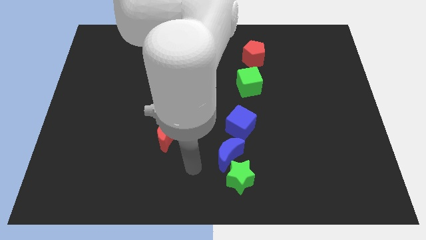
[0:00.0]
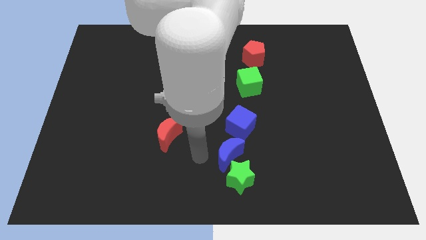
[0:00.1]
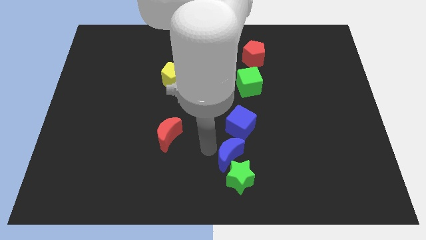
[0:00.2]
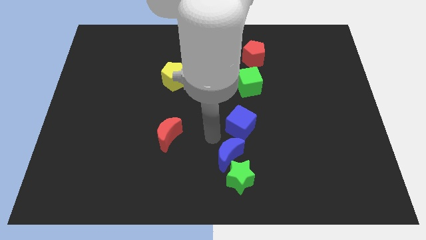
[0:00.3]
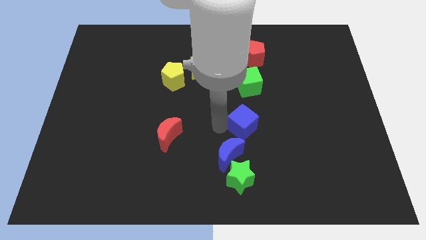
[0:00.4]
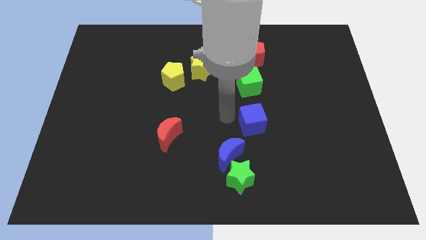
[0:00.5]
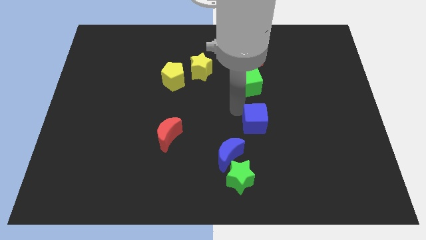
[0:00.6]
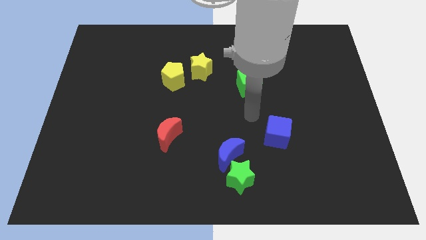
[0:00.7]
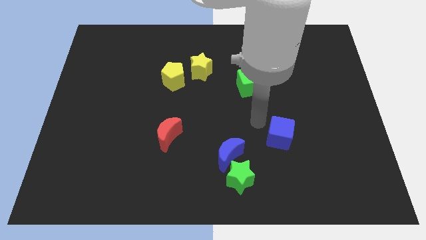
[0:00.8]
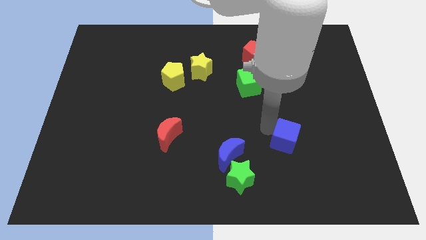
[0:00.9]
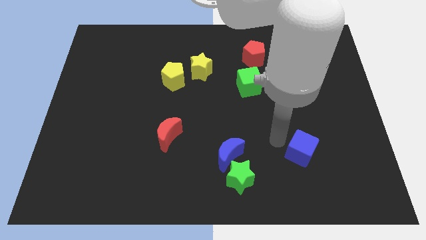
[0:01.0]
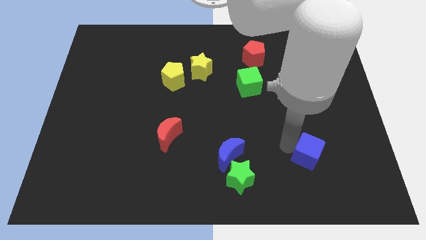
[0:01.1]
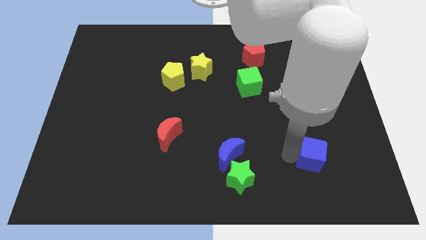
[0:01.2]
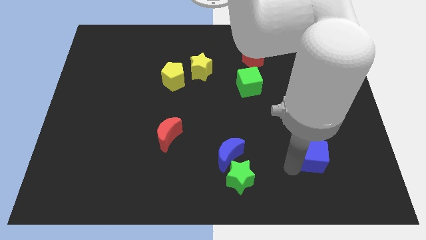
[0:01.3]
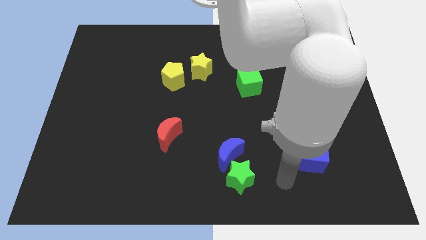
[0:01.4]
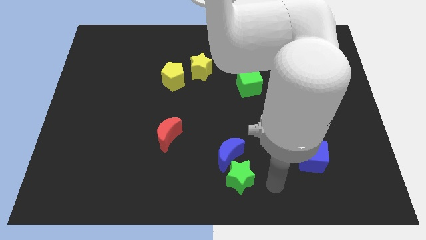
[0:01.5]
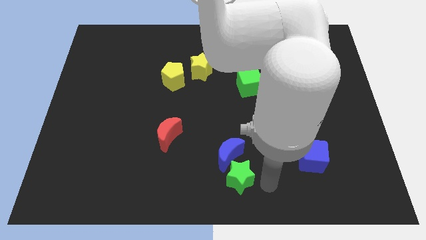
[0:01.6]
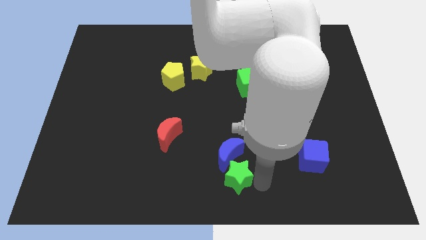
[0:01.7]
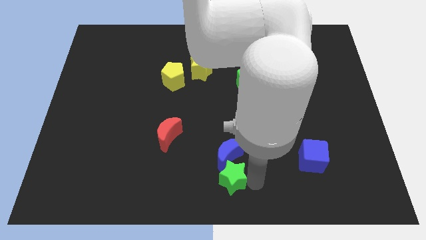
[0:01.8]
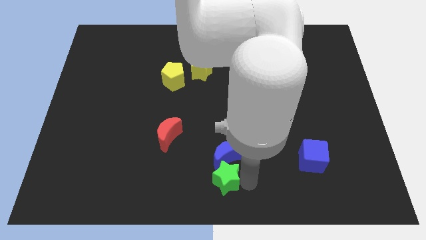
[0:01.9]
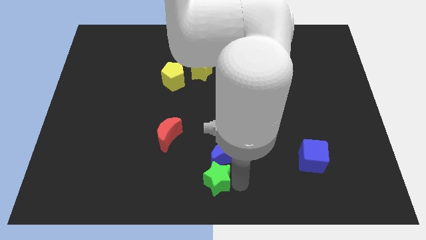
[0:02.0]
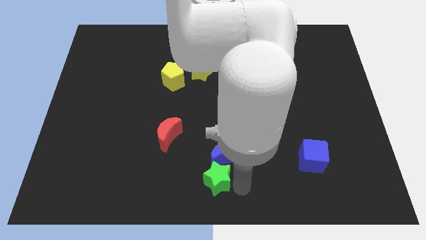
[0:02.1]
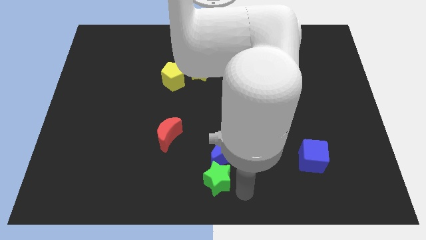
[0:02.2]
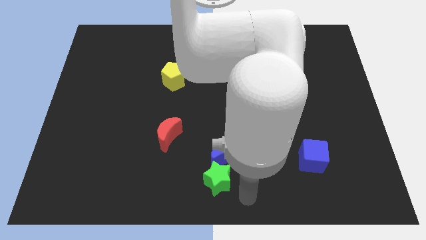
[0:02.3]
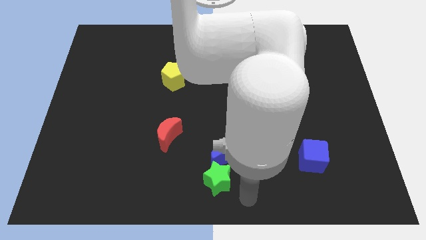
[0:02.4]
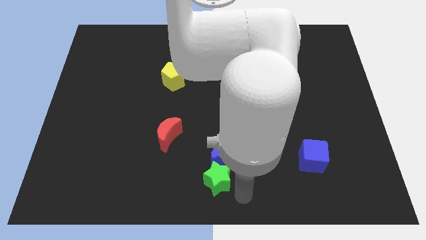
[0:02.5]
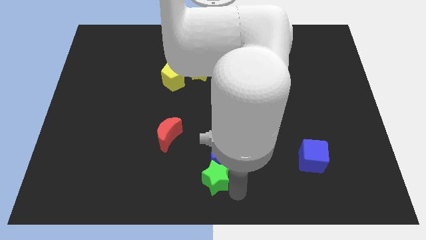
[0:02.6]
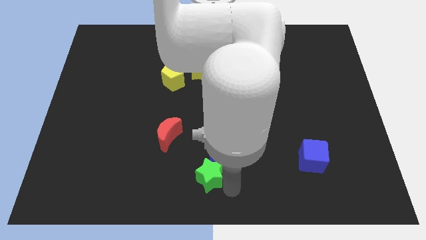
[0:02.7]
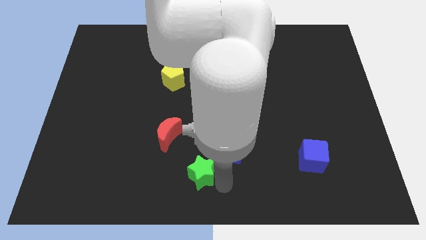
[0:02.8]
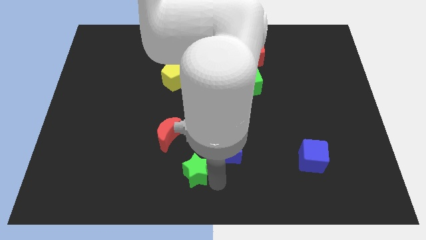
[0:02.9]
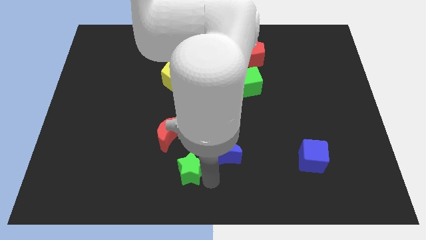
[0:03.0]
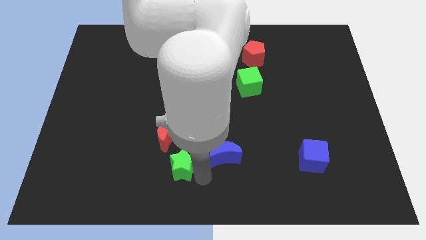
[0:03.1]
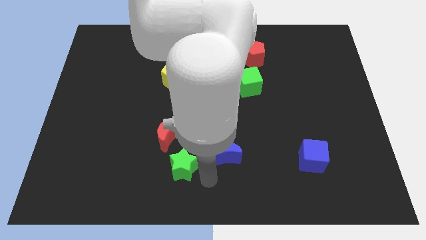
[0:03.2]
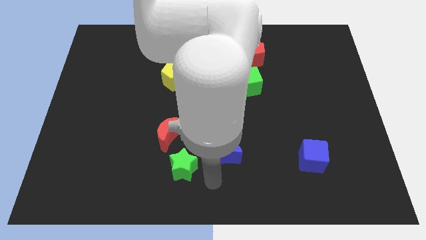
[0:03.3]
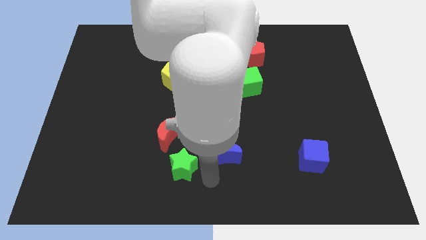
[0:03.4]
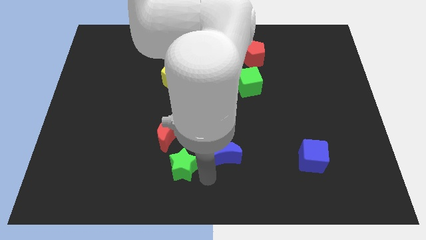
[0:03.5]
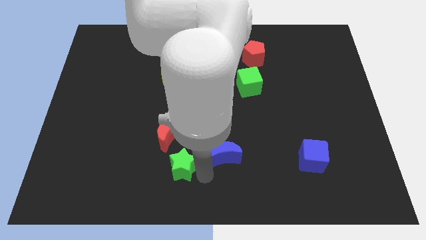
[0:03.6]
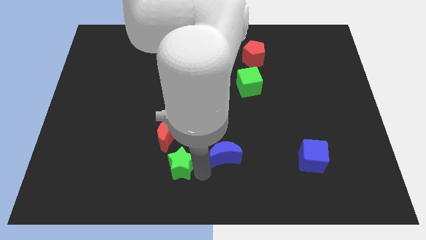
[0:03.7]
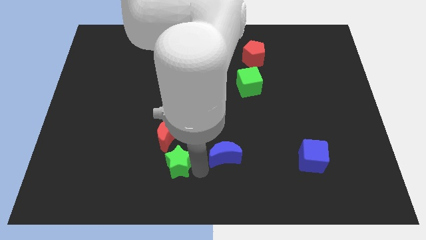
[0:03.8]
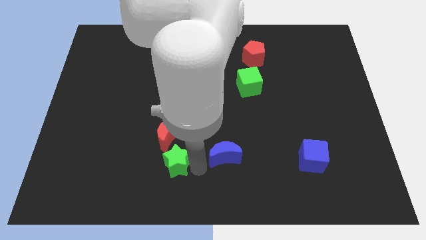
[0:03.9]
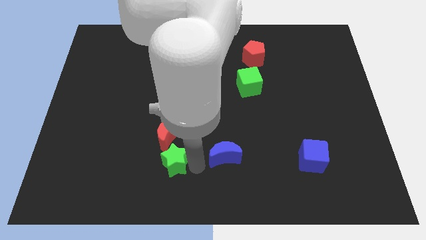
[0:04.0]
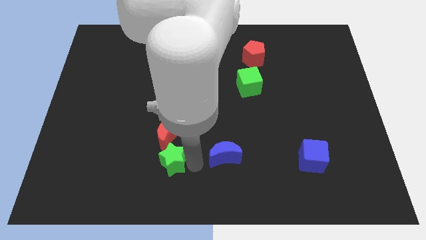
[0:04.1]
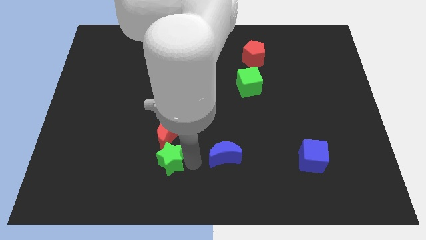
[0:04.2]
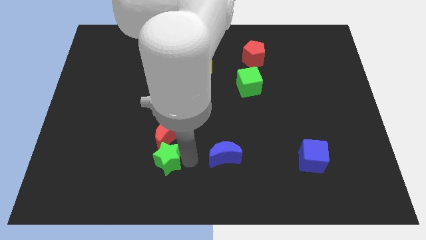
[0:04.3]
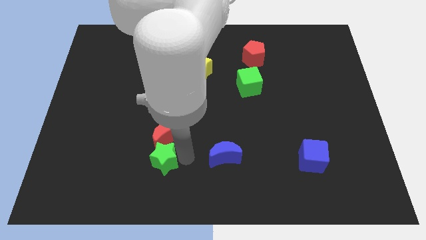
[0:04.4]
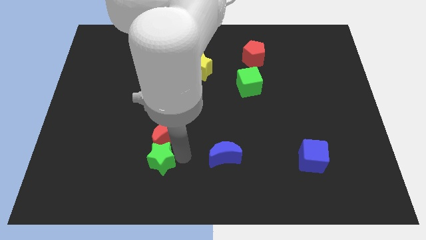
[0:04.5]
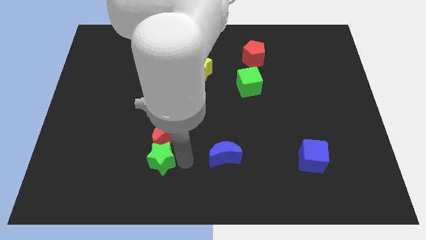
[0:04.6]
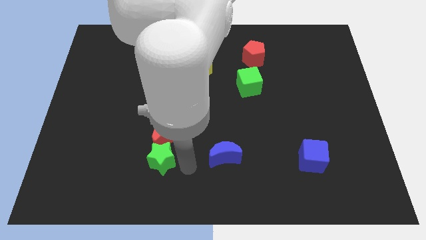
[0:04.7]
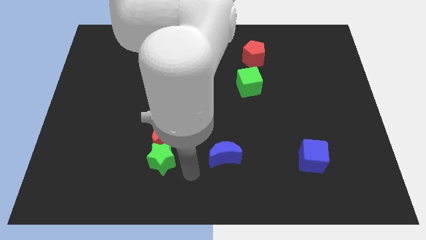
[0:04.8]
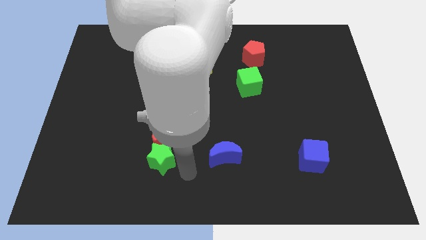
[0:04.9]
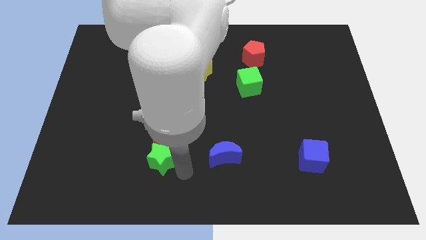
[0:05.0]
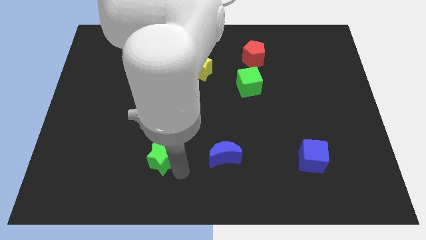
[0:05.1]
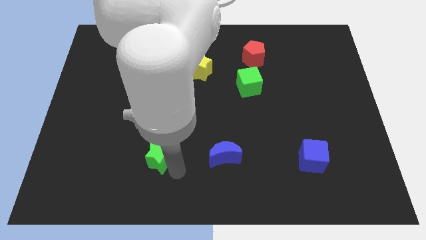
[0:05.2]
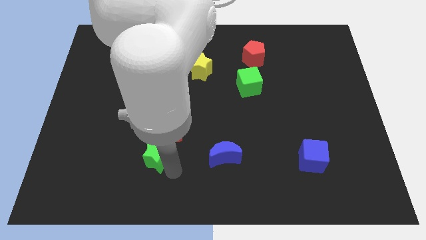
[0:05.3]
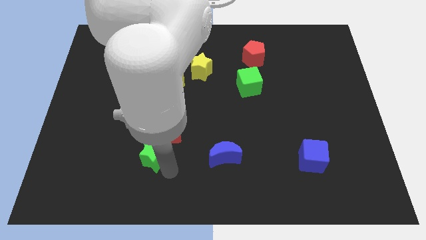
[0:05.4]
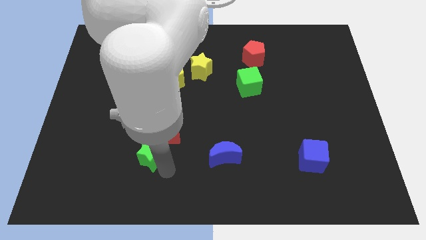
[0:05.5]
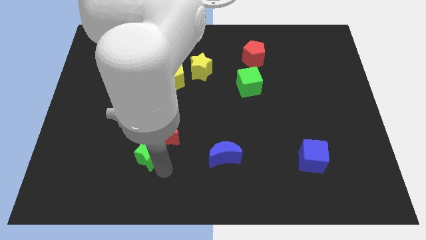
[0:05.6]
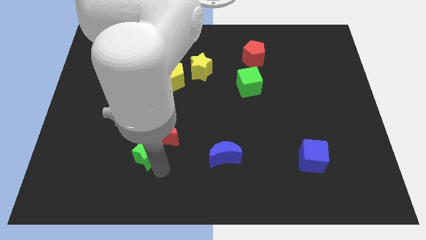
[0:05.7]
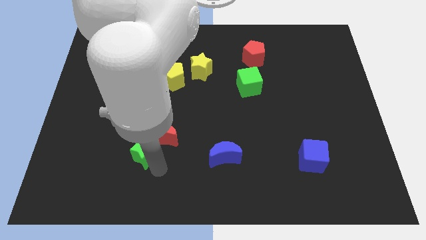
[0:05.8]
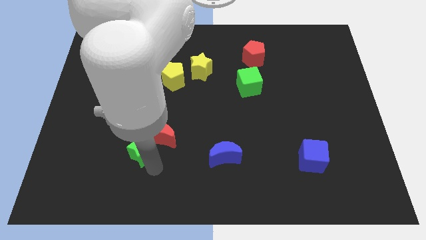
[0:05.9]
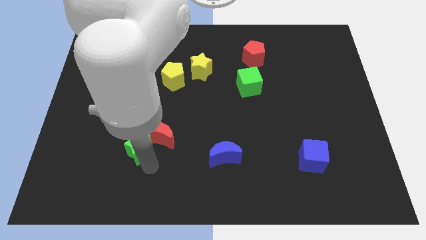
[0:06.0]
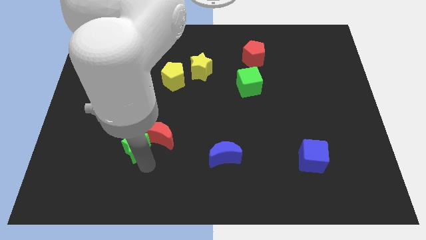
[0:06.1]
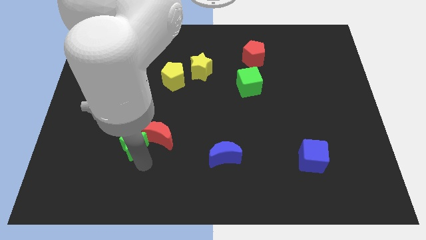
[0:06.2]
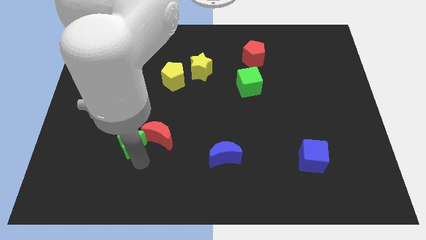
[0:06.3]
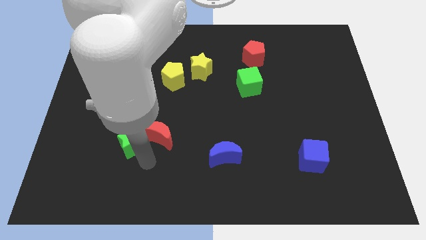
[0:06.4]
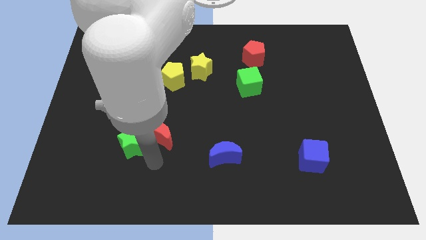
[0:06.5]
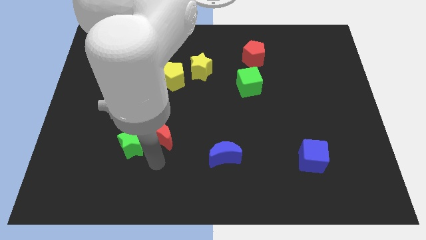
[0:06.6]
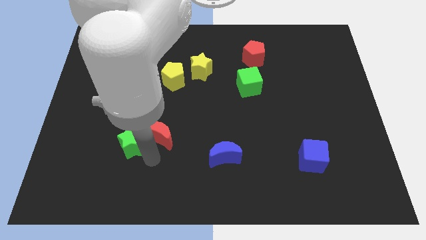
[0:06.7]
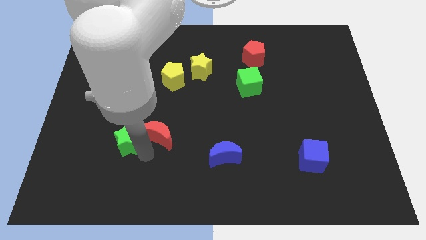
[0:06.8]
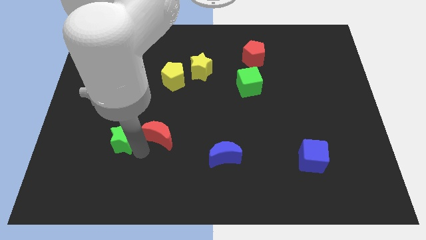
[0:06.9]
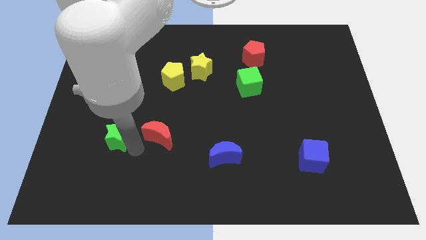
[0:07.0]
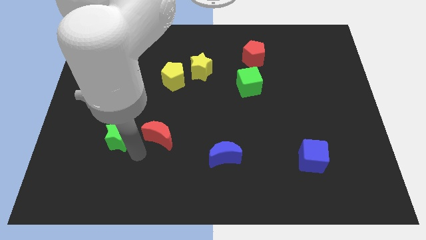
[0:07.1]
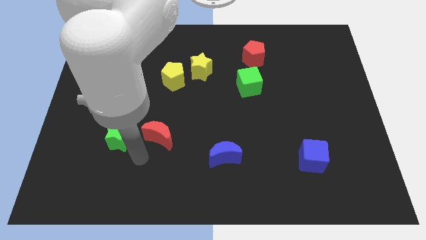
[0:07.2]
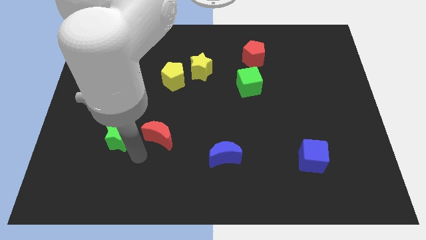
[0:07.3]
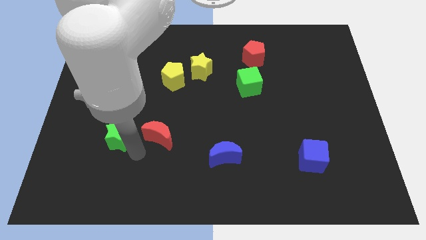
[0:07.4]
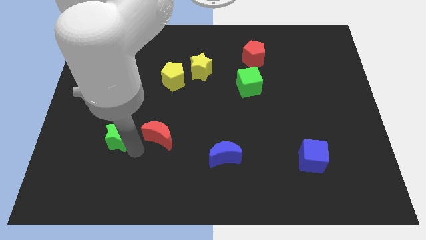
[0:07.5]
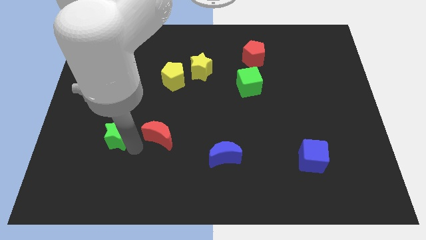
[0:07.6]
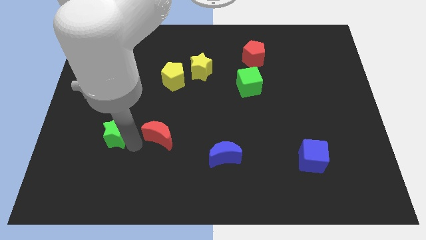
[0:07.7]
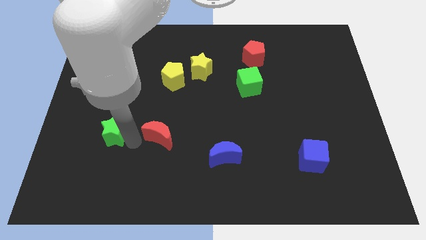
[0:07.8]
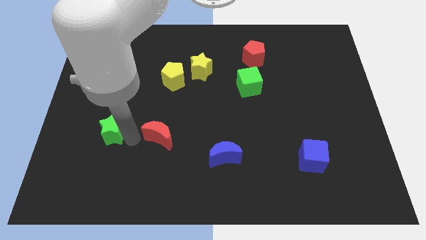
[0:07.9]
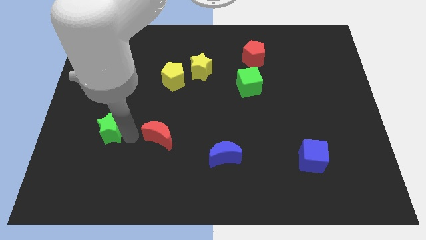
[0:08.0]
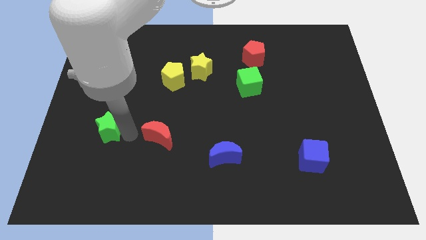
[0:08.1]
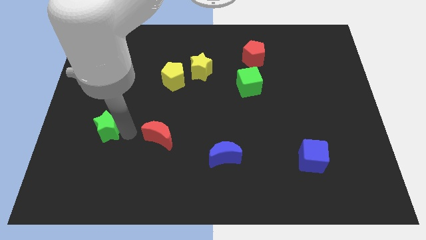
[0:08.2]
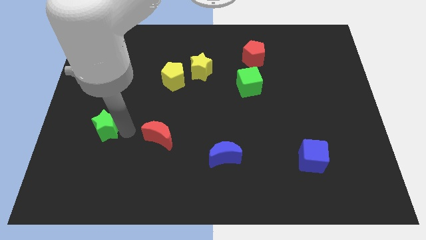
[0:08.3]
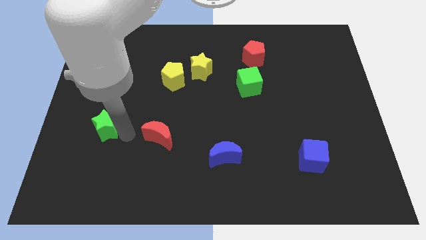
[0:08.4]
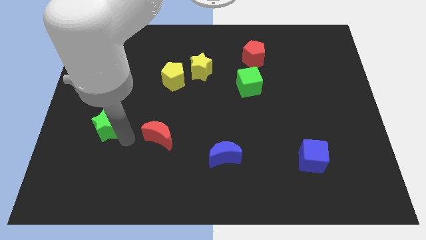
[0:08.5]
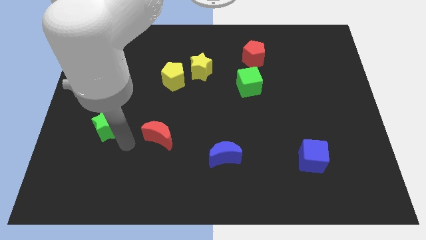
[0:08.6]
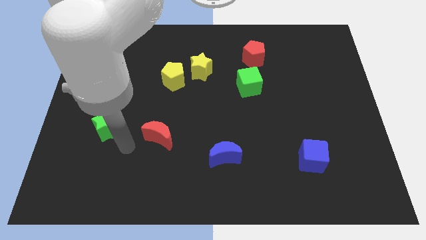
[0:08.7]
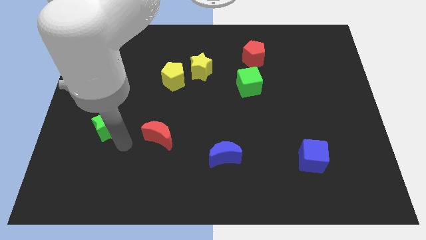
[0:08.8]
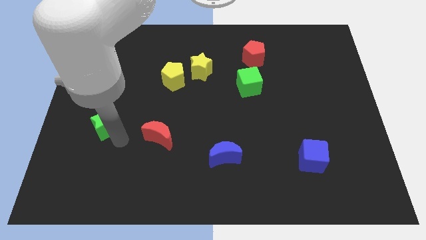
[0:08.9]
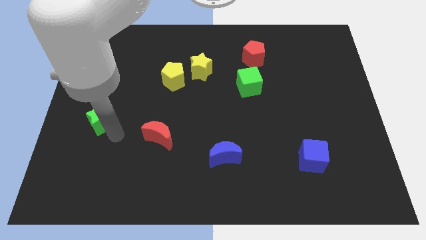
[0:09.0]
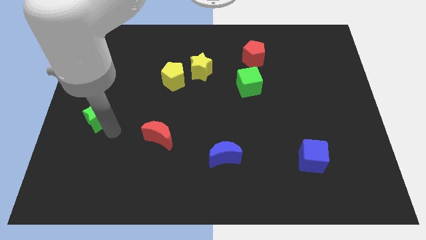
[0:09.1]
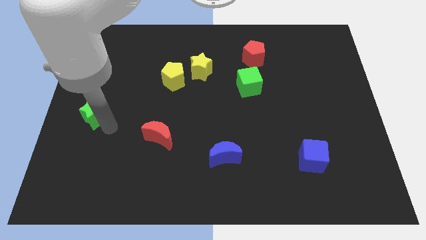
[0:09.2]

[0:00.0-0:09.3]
push the green star to the center left
